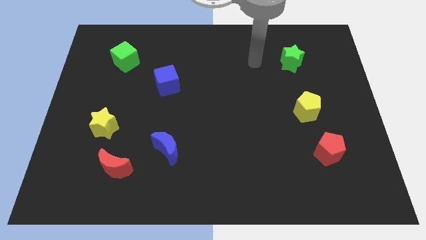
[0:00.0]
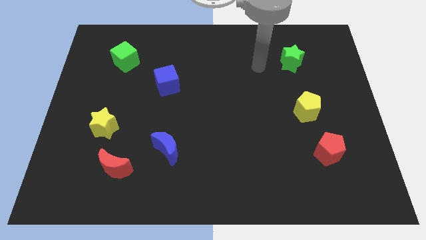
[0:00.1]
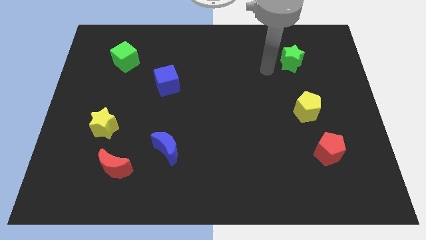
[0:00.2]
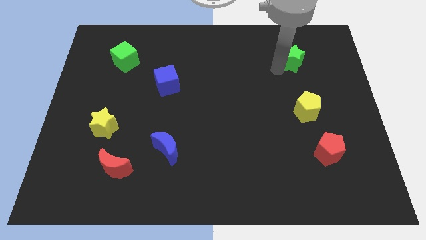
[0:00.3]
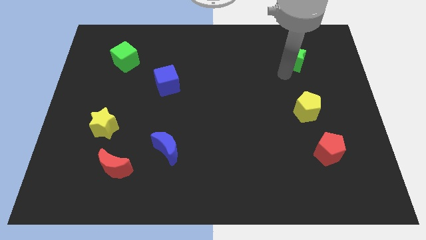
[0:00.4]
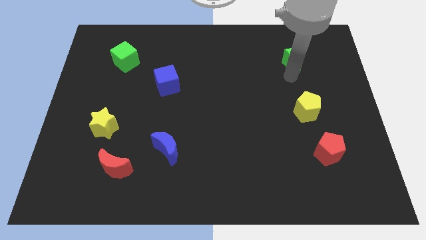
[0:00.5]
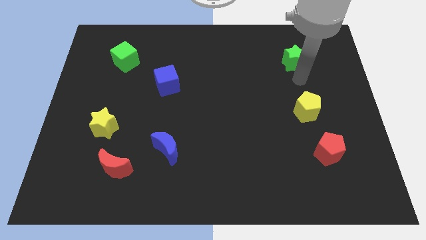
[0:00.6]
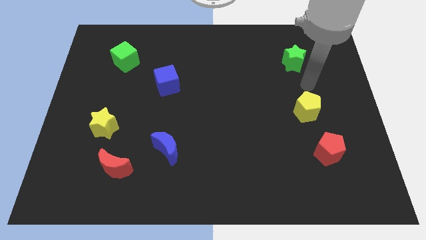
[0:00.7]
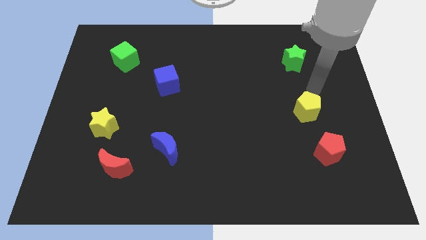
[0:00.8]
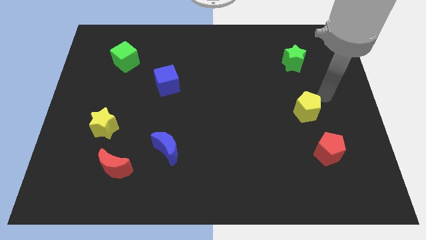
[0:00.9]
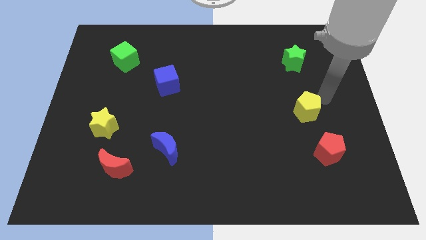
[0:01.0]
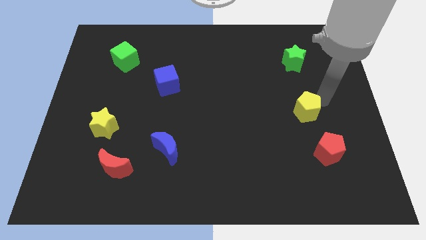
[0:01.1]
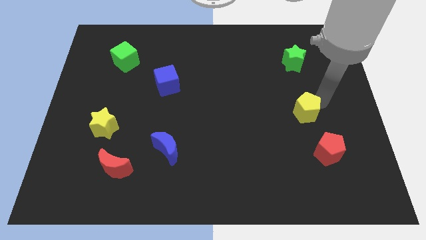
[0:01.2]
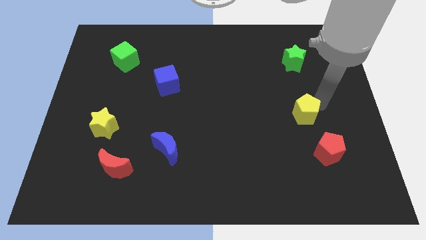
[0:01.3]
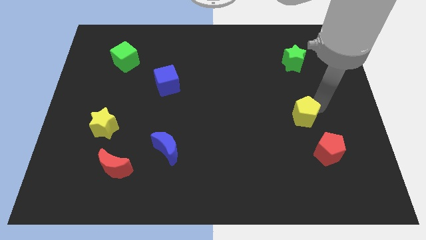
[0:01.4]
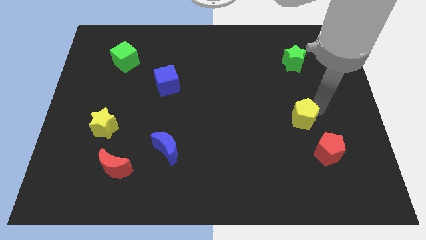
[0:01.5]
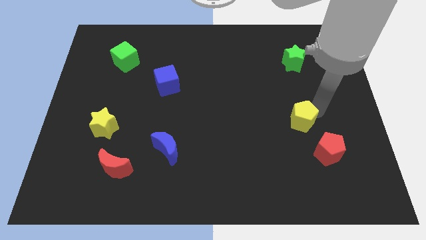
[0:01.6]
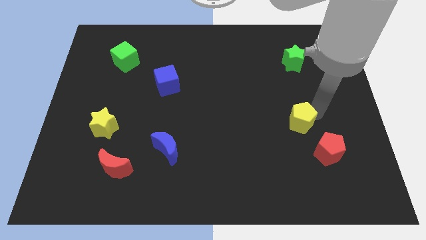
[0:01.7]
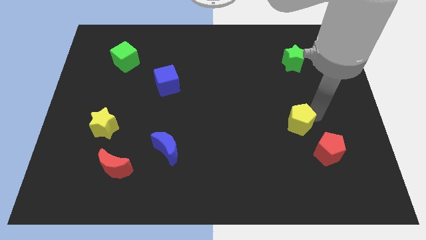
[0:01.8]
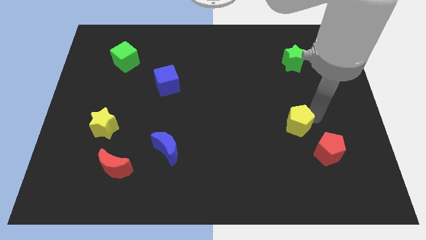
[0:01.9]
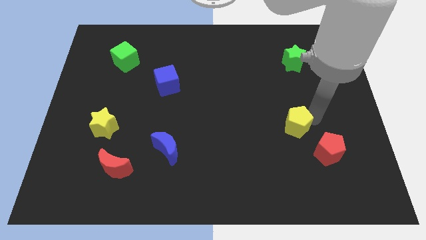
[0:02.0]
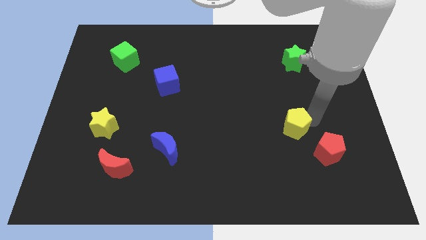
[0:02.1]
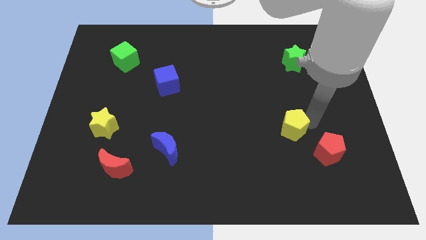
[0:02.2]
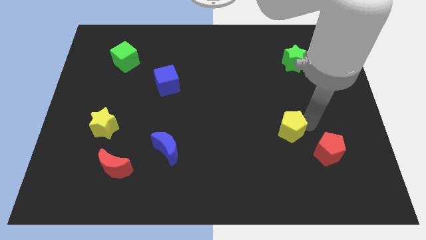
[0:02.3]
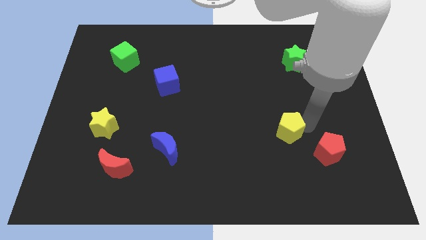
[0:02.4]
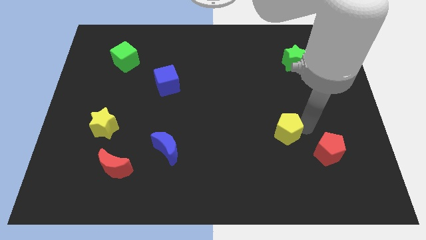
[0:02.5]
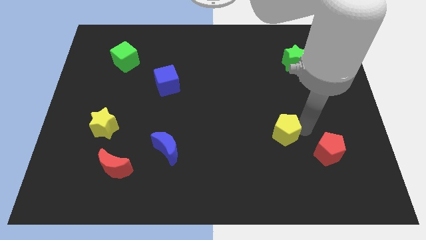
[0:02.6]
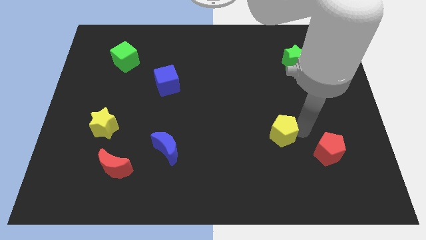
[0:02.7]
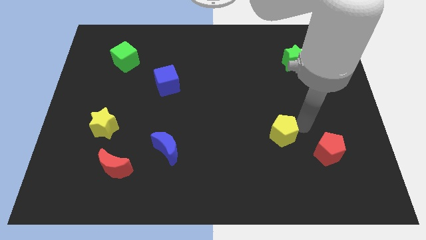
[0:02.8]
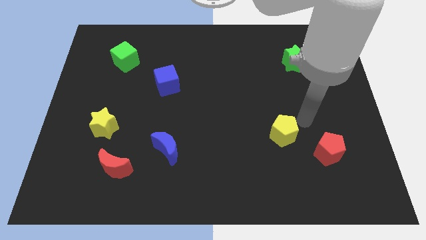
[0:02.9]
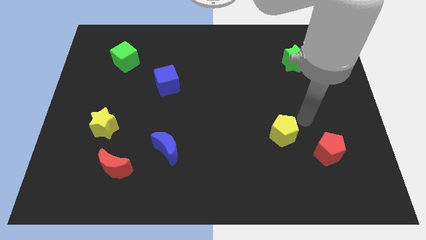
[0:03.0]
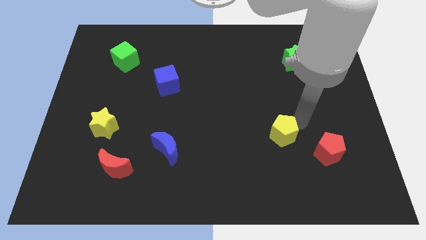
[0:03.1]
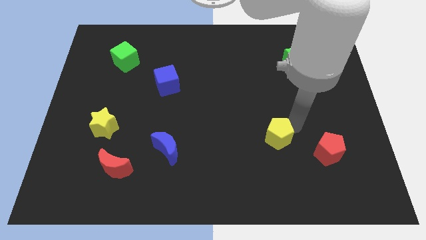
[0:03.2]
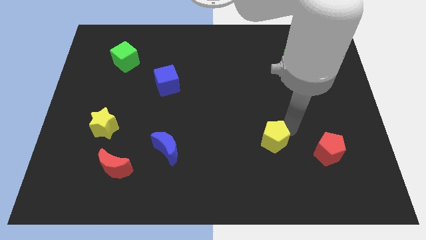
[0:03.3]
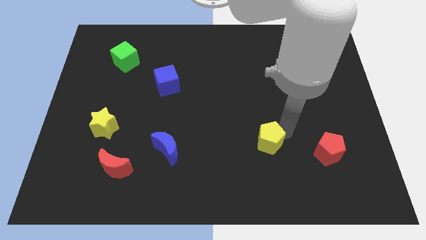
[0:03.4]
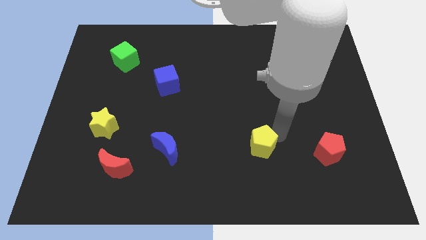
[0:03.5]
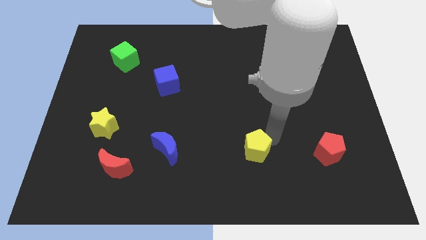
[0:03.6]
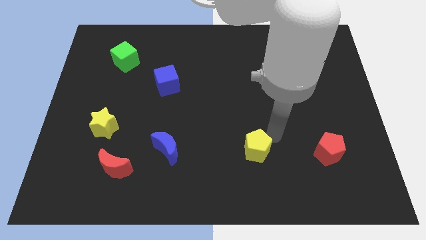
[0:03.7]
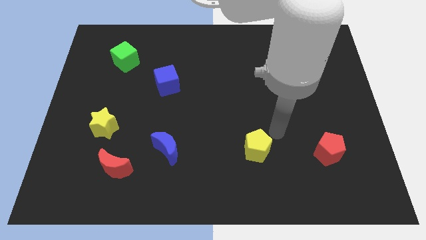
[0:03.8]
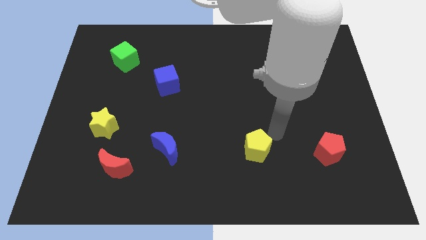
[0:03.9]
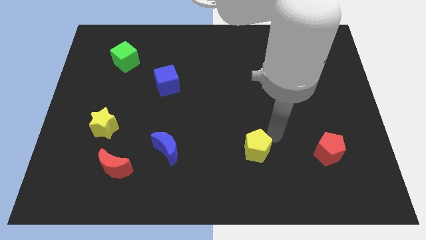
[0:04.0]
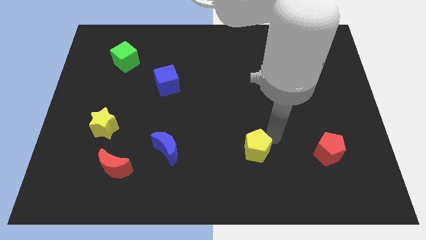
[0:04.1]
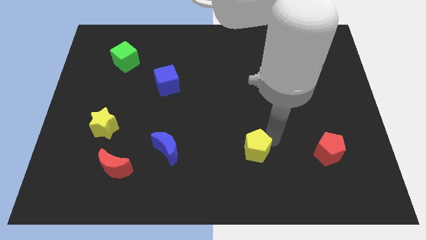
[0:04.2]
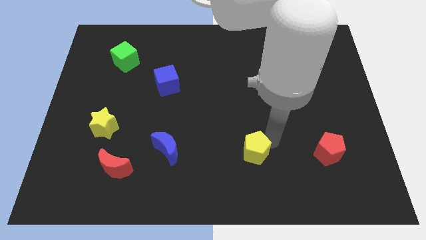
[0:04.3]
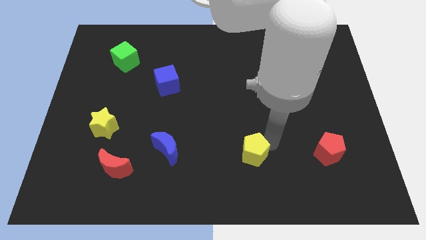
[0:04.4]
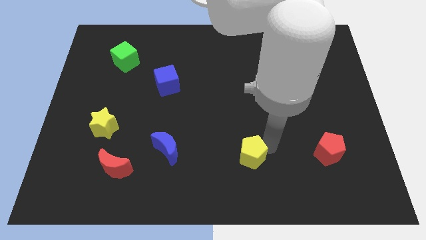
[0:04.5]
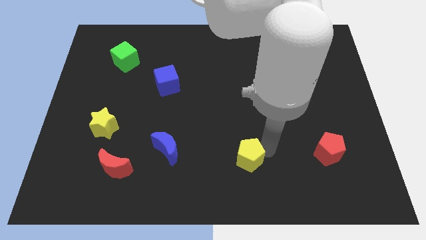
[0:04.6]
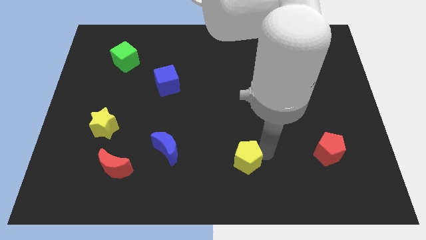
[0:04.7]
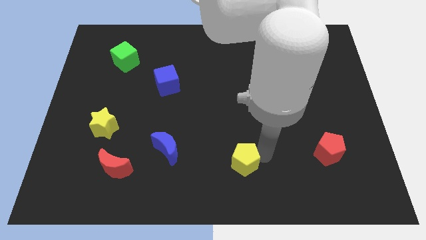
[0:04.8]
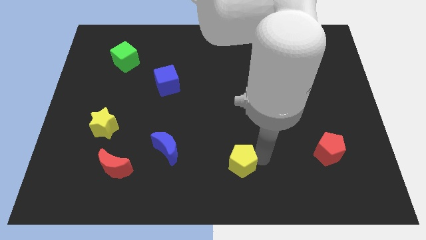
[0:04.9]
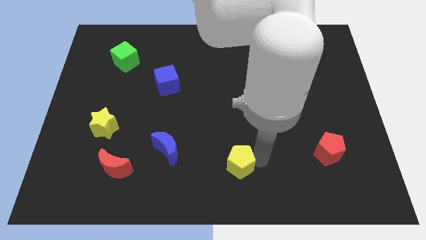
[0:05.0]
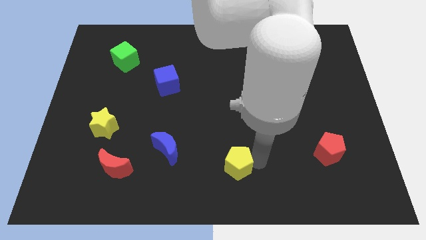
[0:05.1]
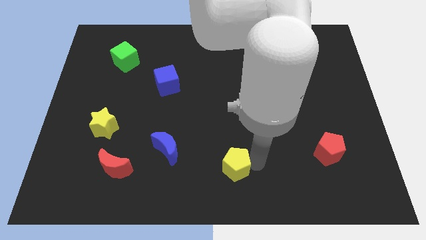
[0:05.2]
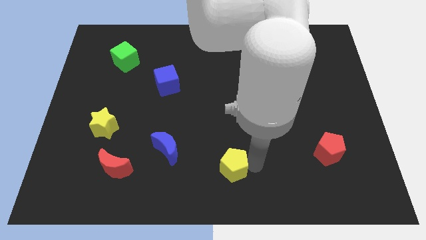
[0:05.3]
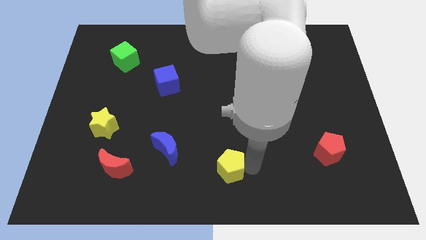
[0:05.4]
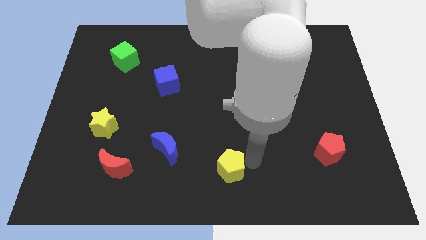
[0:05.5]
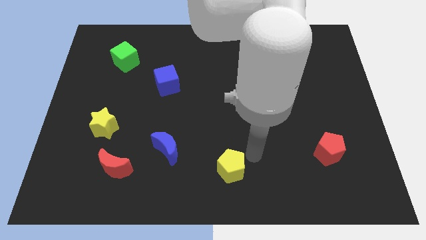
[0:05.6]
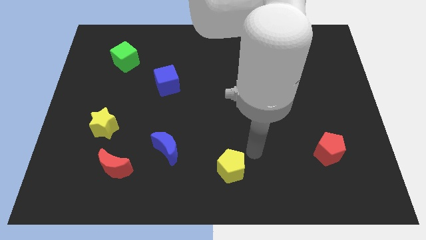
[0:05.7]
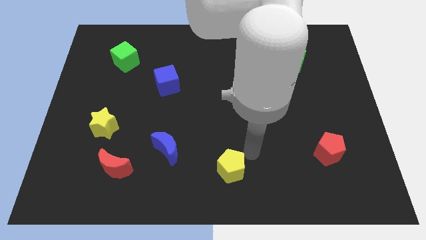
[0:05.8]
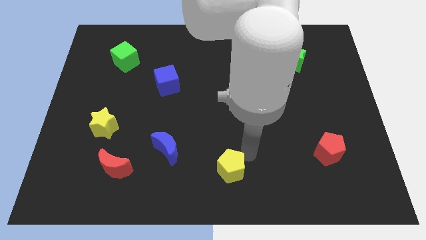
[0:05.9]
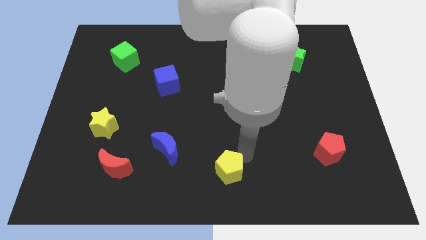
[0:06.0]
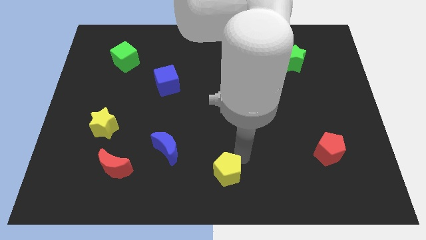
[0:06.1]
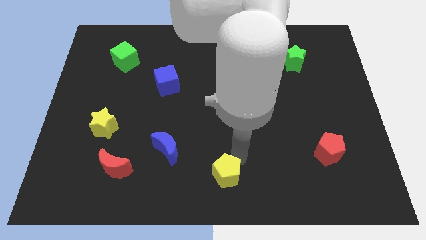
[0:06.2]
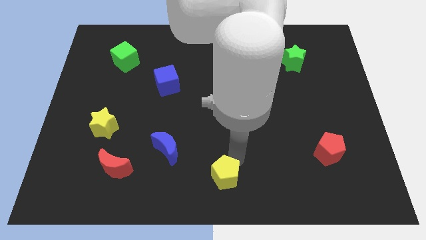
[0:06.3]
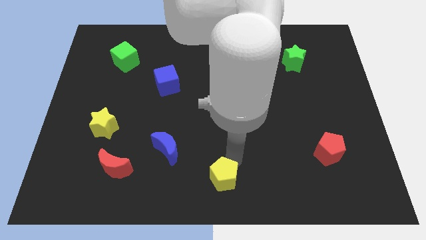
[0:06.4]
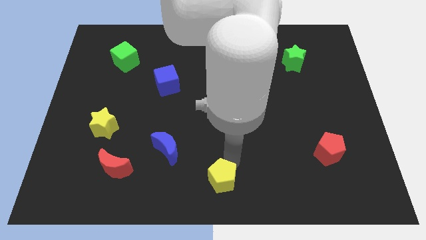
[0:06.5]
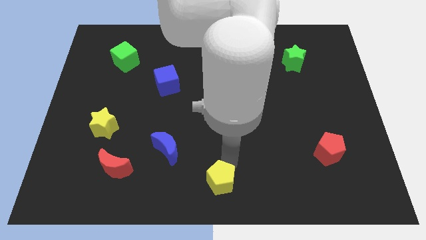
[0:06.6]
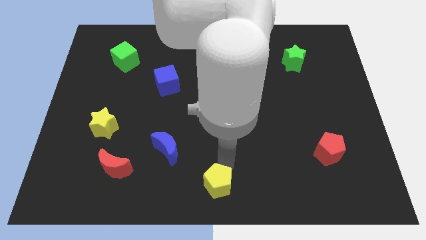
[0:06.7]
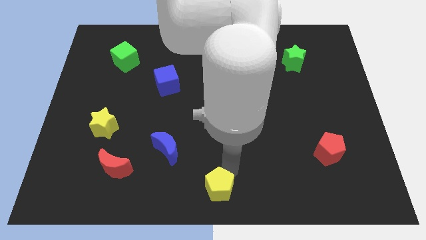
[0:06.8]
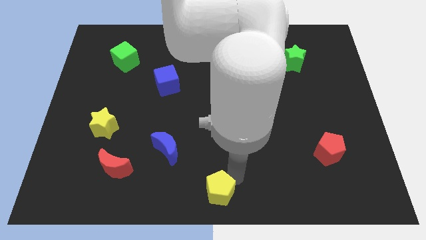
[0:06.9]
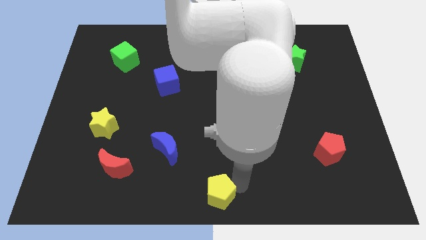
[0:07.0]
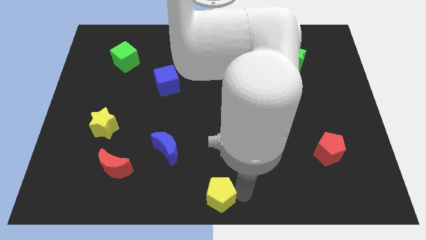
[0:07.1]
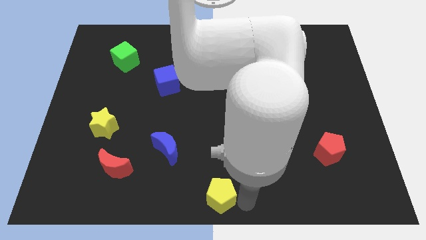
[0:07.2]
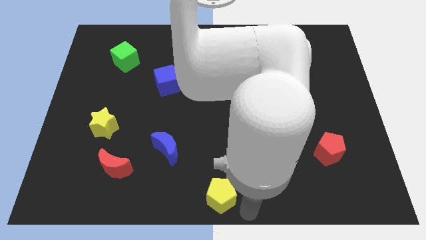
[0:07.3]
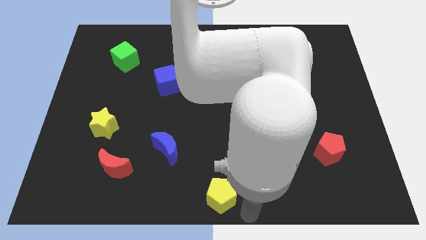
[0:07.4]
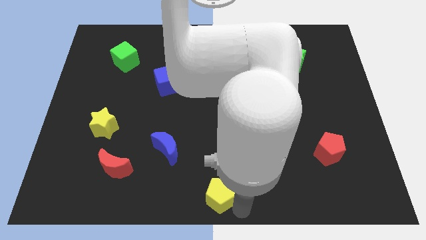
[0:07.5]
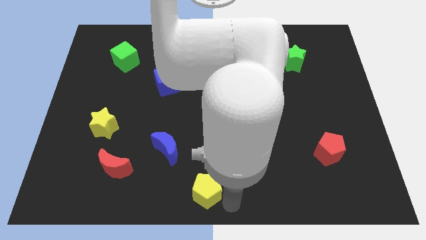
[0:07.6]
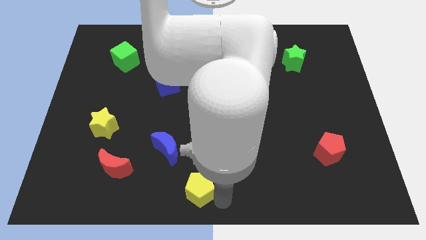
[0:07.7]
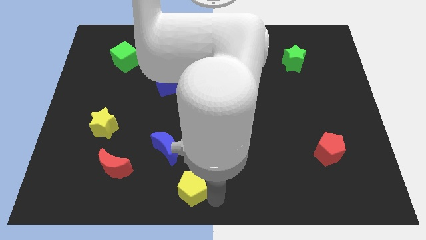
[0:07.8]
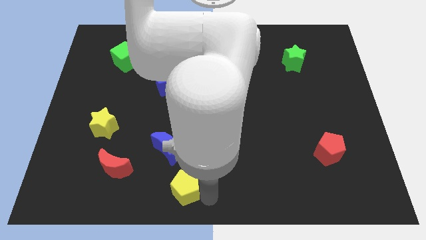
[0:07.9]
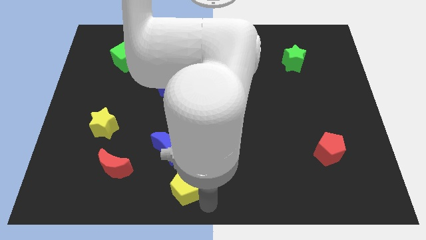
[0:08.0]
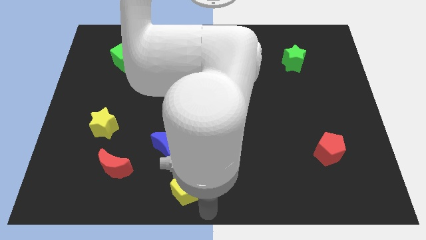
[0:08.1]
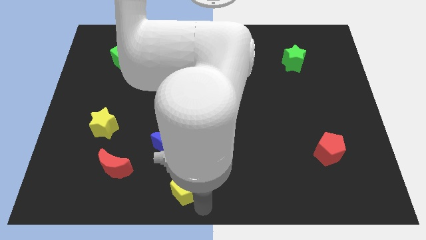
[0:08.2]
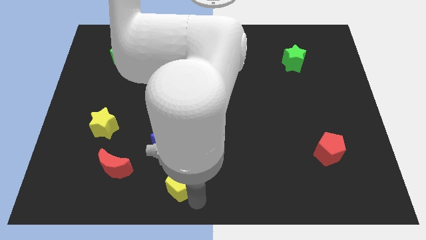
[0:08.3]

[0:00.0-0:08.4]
slide the yellow pentagon to the right of the red moon
